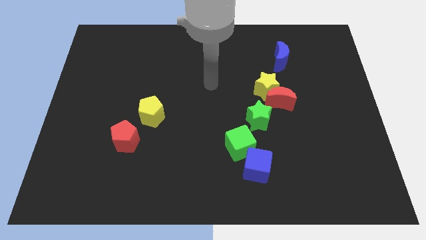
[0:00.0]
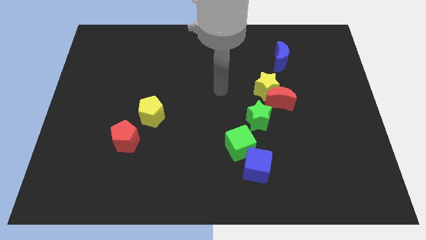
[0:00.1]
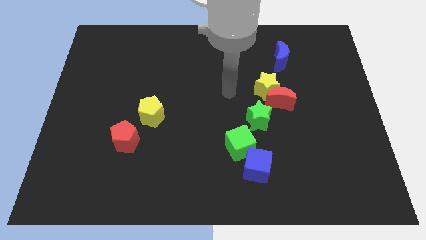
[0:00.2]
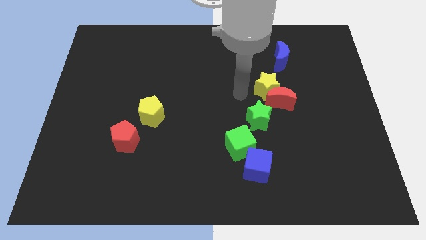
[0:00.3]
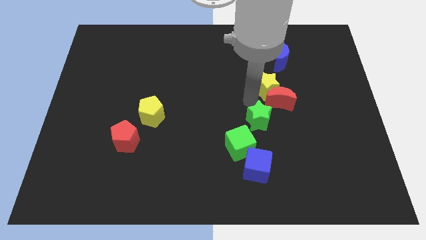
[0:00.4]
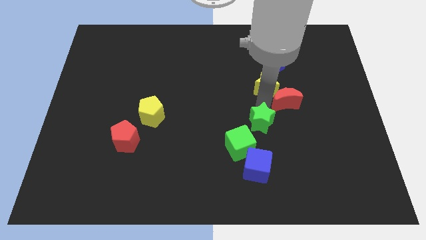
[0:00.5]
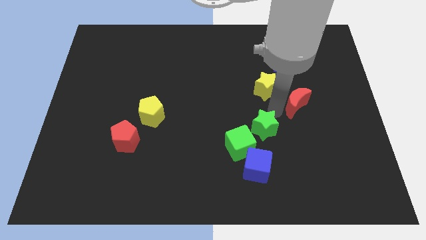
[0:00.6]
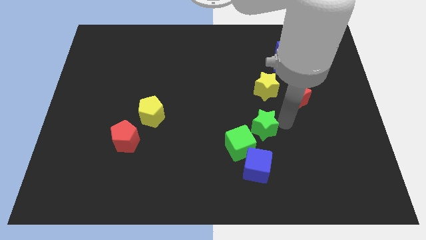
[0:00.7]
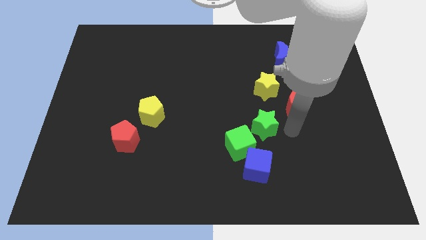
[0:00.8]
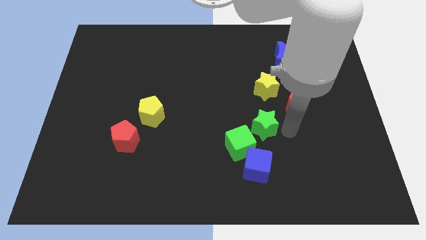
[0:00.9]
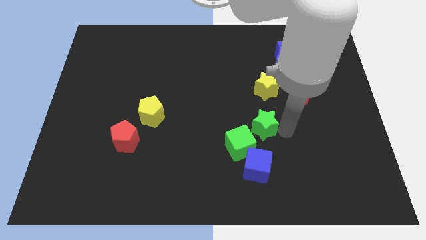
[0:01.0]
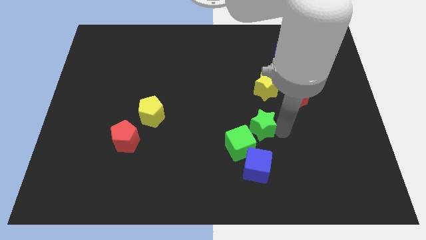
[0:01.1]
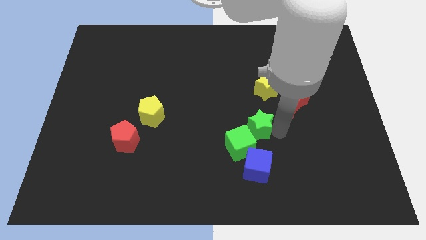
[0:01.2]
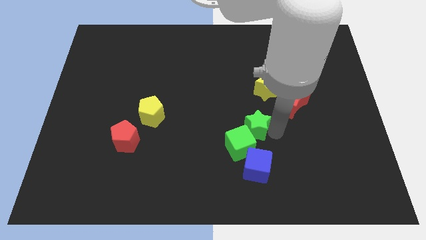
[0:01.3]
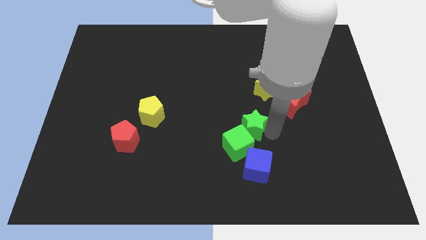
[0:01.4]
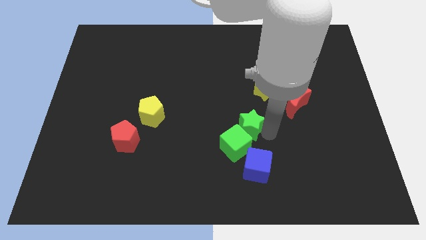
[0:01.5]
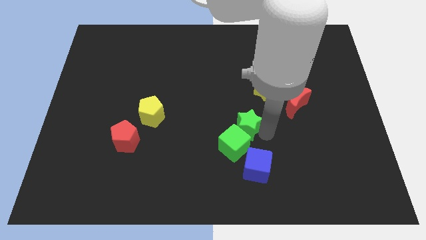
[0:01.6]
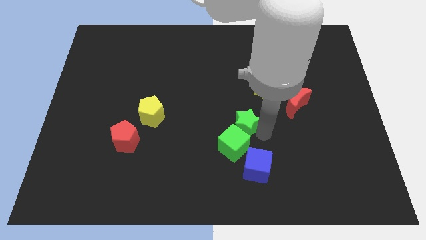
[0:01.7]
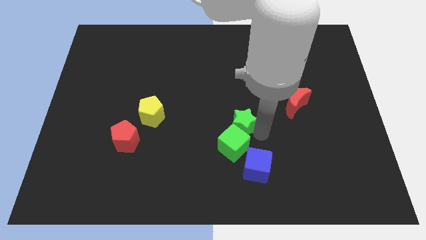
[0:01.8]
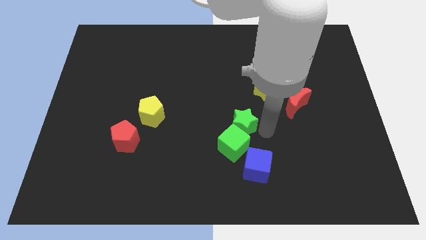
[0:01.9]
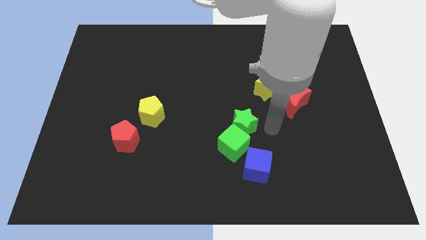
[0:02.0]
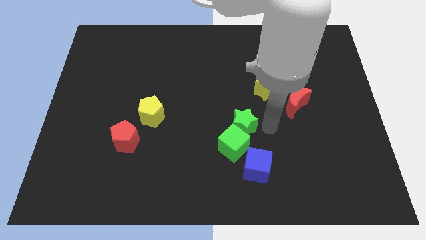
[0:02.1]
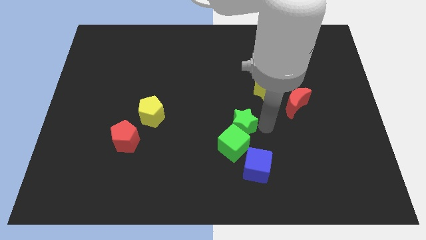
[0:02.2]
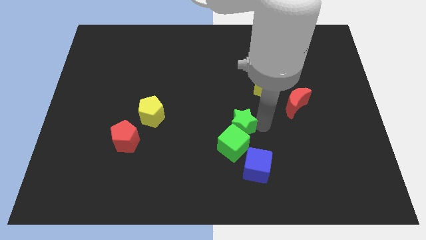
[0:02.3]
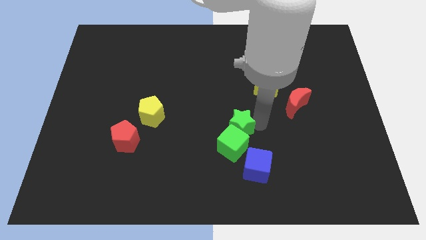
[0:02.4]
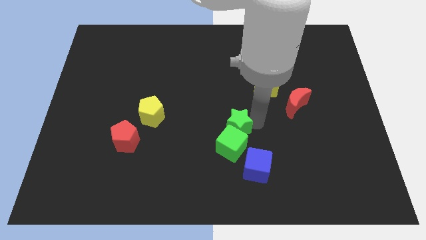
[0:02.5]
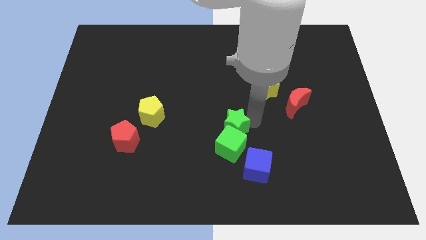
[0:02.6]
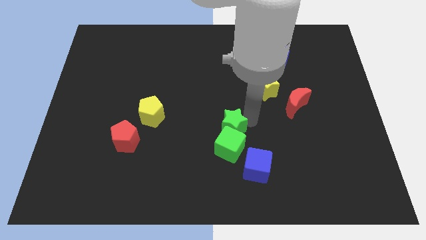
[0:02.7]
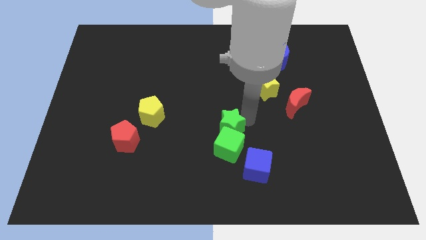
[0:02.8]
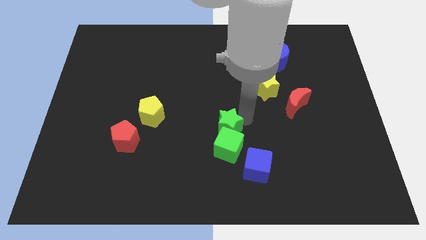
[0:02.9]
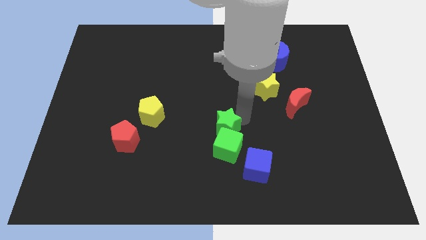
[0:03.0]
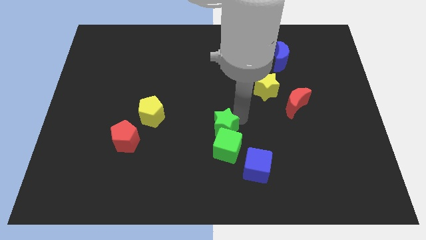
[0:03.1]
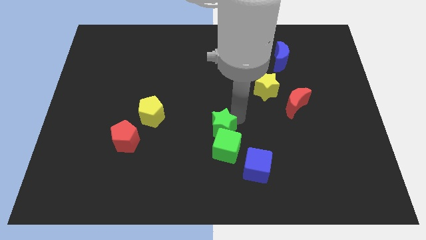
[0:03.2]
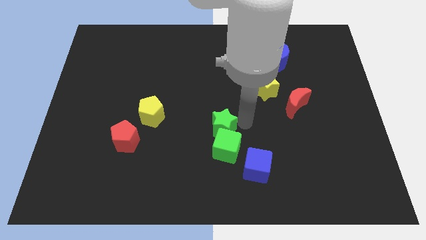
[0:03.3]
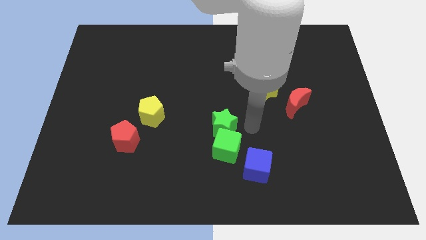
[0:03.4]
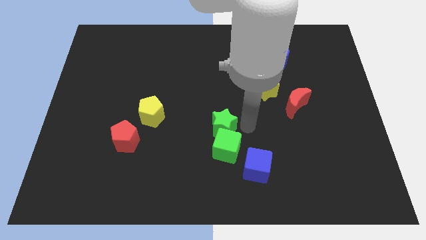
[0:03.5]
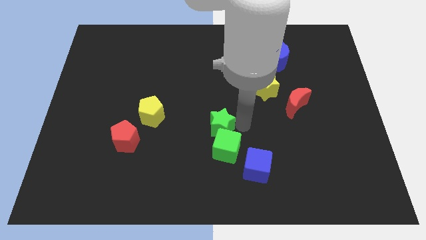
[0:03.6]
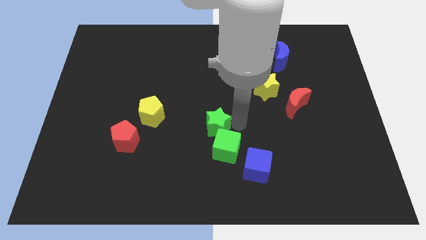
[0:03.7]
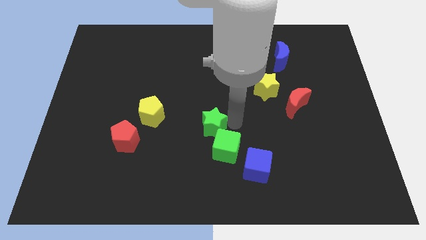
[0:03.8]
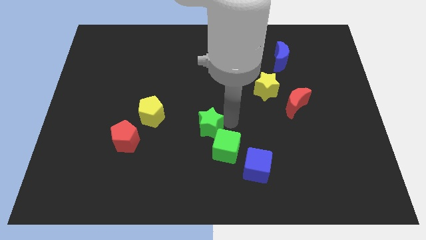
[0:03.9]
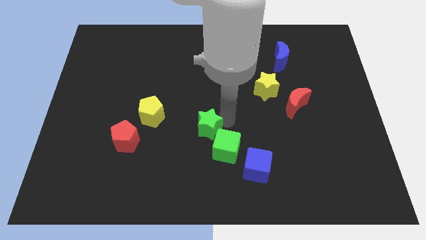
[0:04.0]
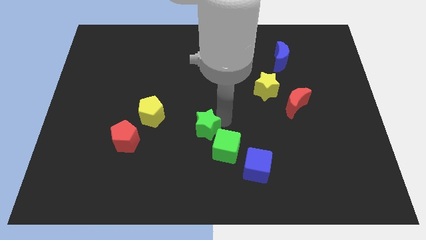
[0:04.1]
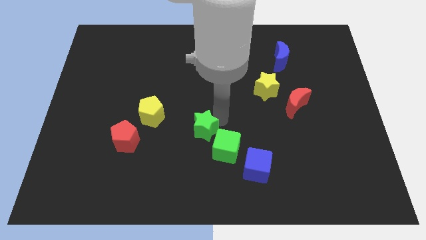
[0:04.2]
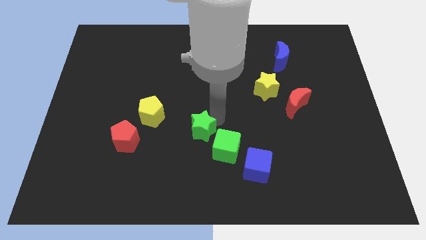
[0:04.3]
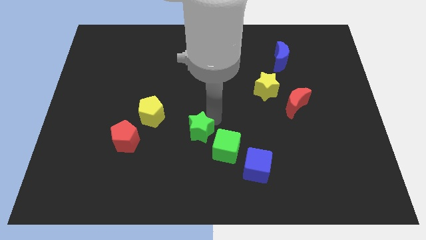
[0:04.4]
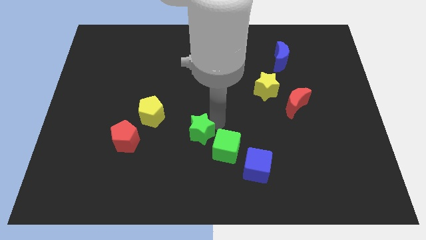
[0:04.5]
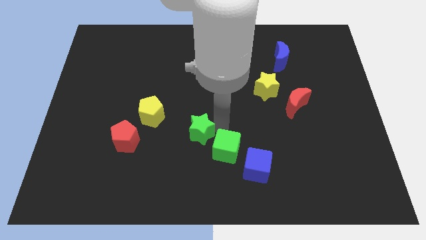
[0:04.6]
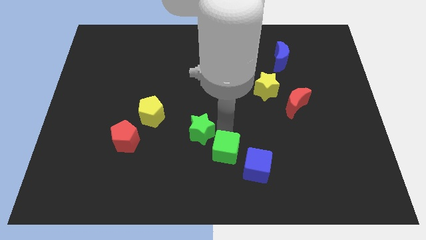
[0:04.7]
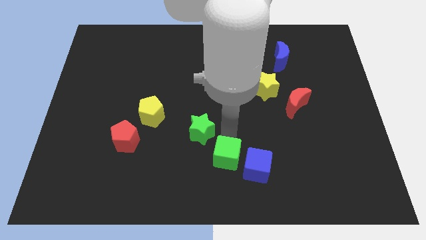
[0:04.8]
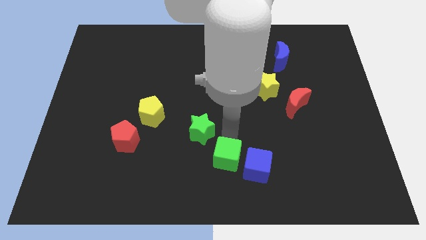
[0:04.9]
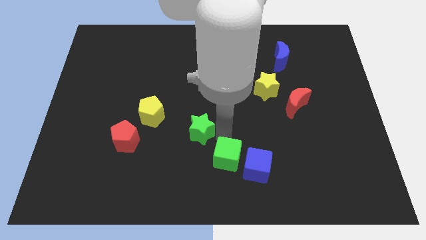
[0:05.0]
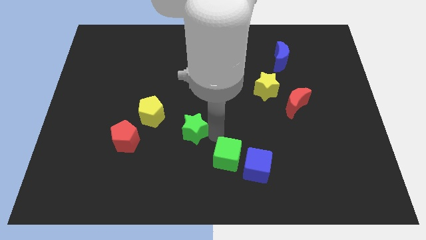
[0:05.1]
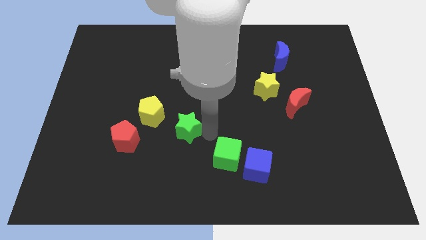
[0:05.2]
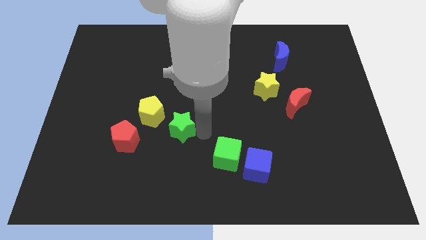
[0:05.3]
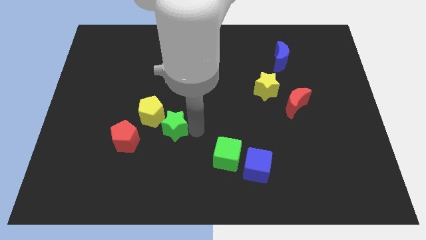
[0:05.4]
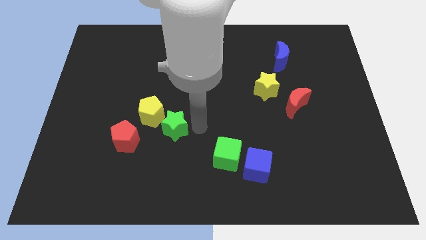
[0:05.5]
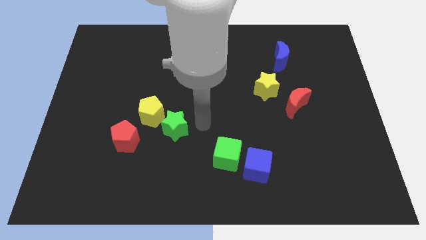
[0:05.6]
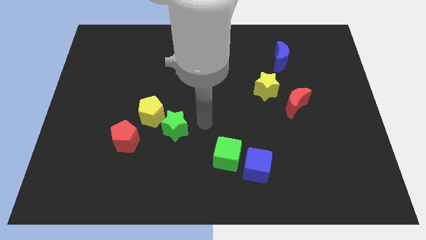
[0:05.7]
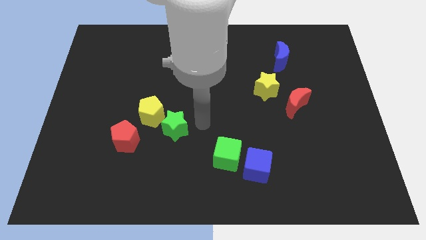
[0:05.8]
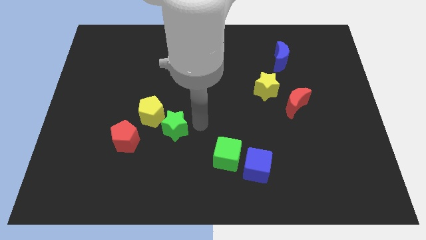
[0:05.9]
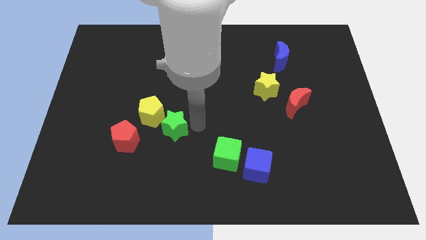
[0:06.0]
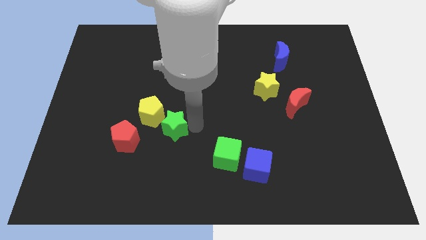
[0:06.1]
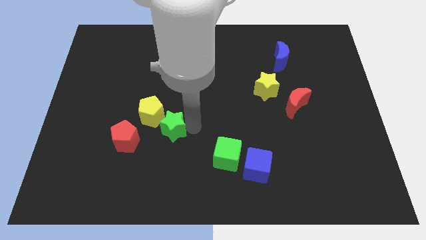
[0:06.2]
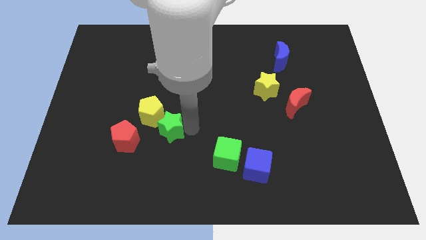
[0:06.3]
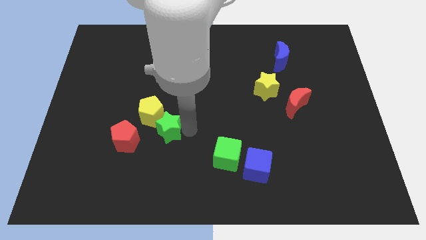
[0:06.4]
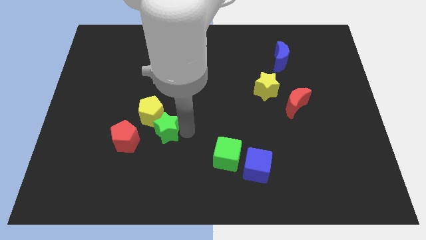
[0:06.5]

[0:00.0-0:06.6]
slide the green star to the left

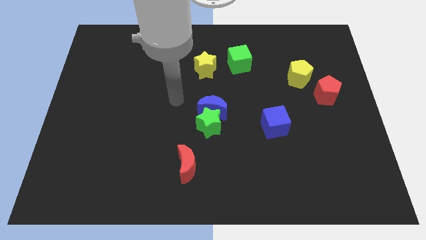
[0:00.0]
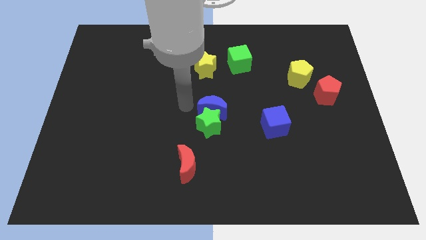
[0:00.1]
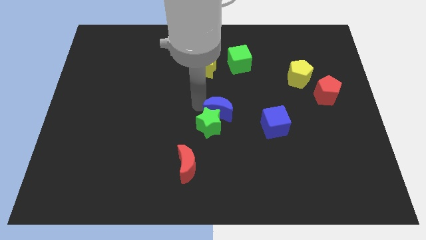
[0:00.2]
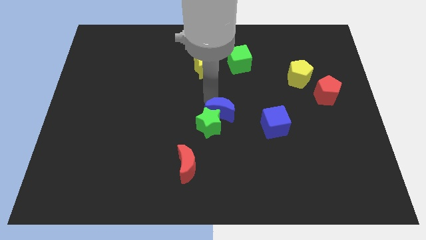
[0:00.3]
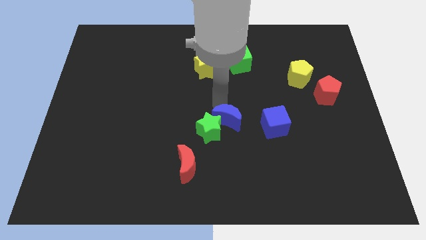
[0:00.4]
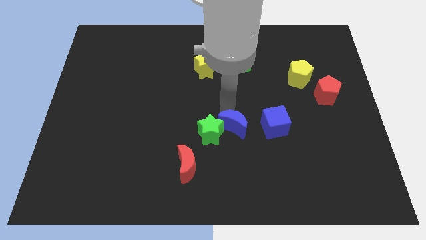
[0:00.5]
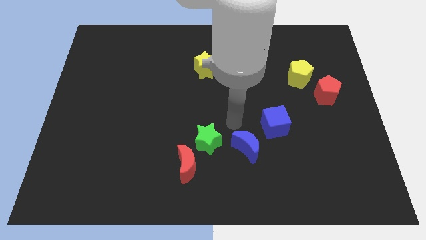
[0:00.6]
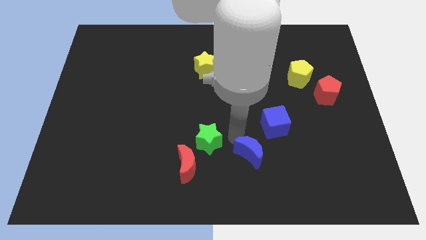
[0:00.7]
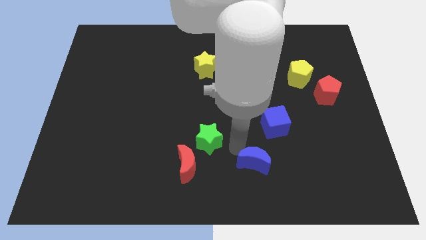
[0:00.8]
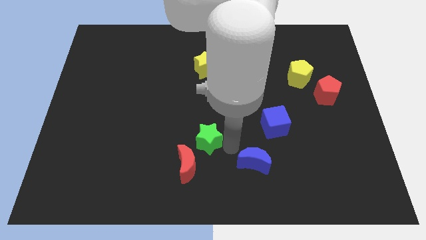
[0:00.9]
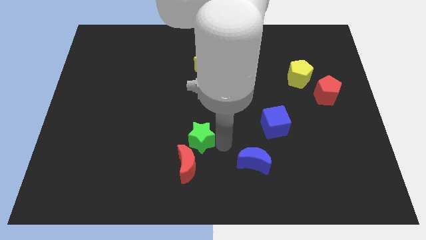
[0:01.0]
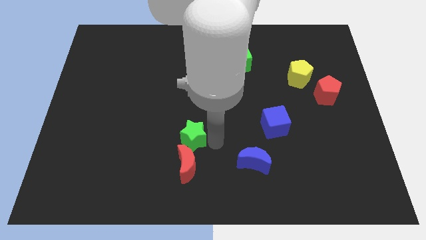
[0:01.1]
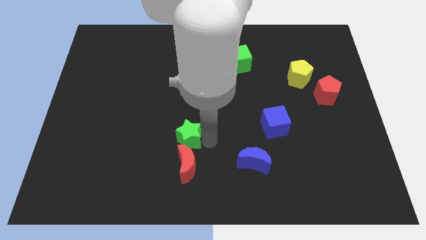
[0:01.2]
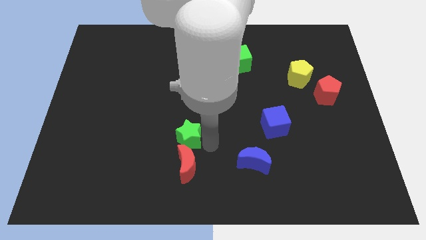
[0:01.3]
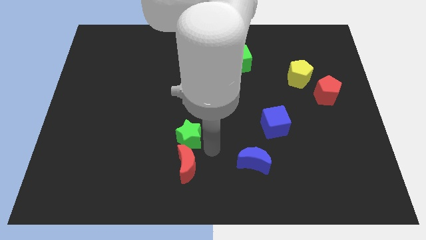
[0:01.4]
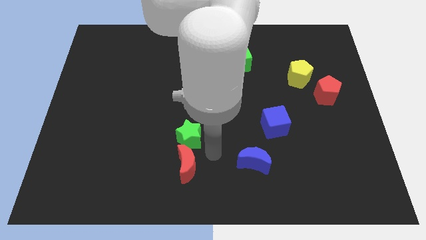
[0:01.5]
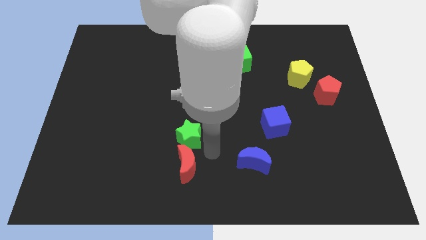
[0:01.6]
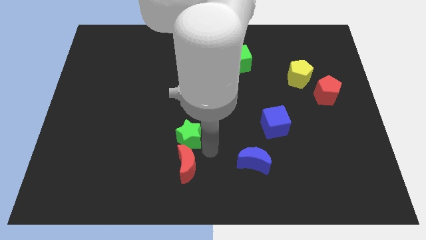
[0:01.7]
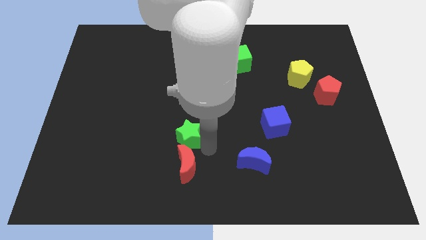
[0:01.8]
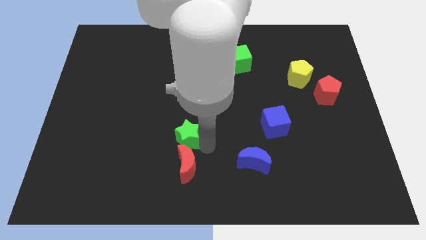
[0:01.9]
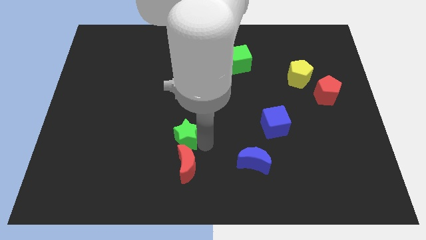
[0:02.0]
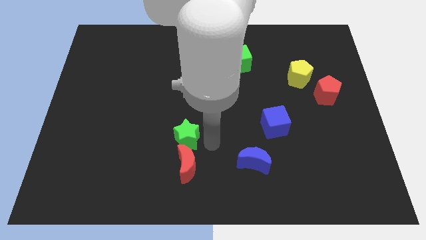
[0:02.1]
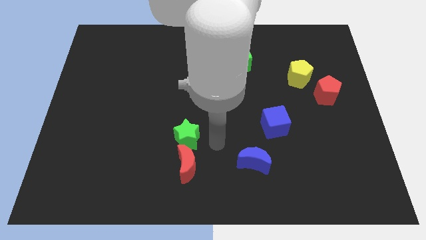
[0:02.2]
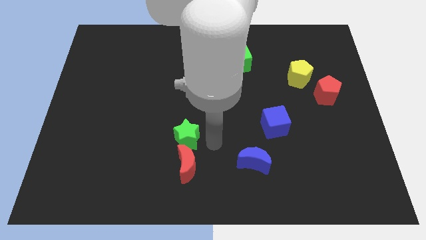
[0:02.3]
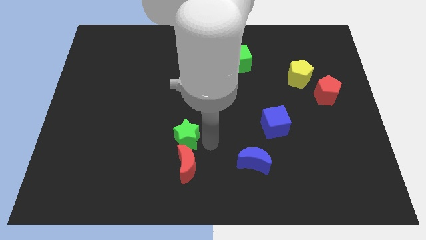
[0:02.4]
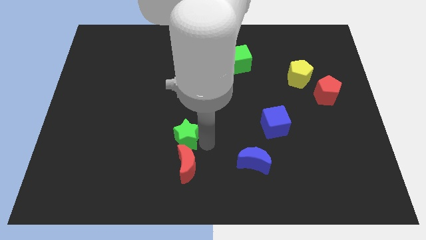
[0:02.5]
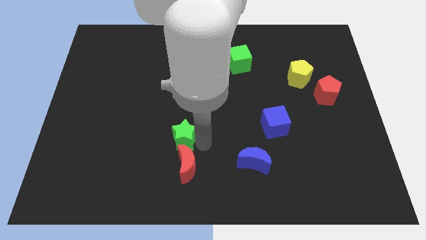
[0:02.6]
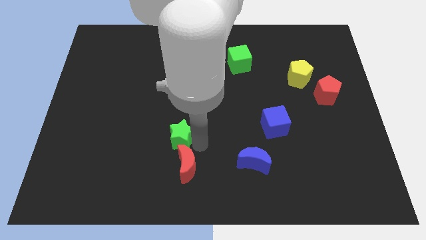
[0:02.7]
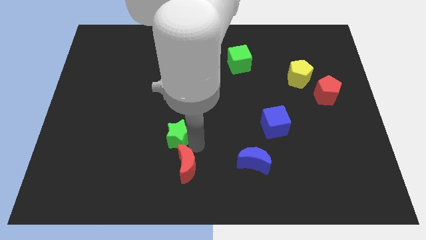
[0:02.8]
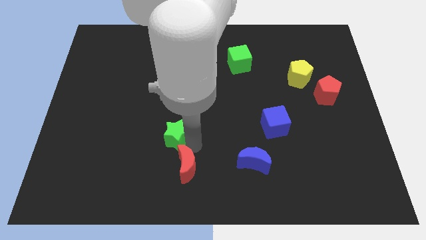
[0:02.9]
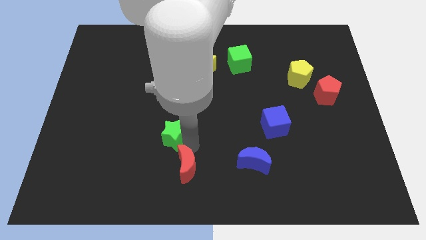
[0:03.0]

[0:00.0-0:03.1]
push the green star slightly left
